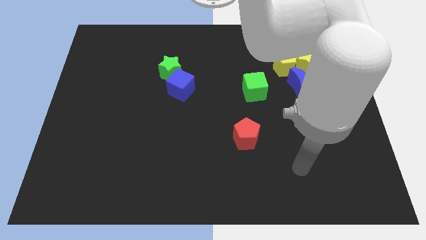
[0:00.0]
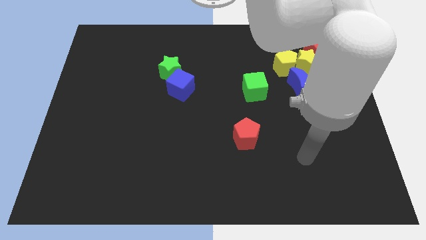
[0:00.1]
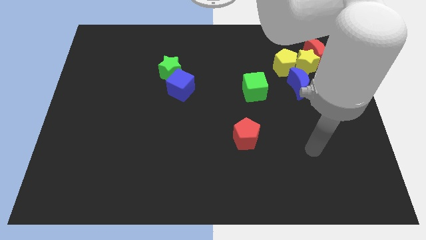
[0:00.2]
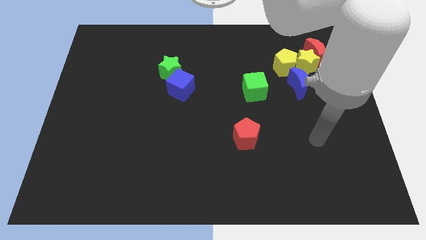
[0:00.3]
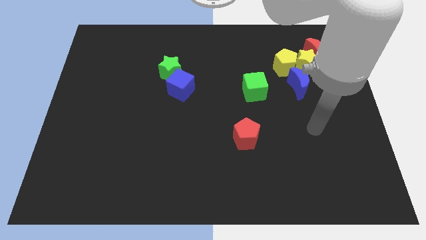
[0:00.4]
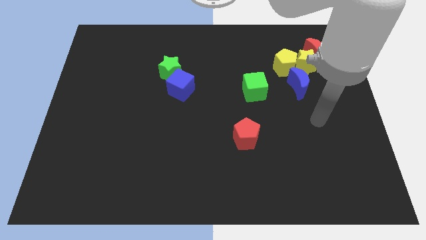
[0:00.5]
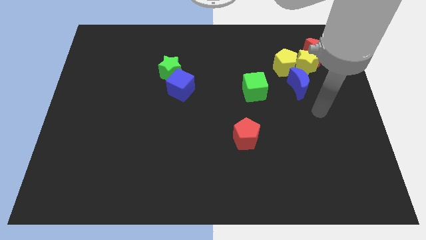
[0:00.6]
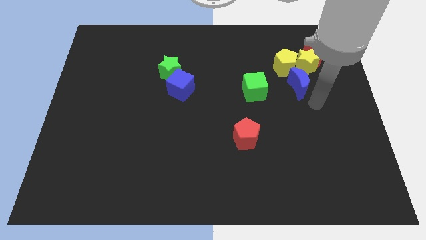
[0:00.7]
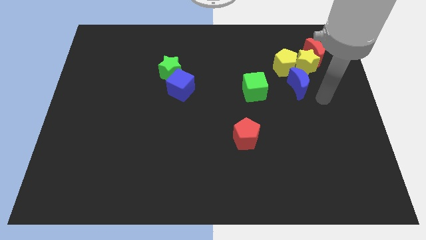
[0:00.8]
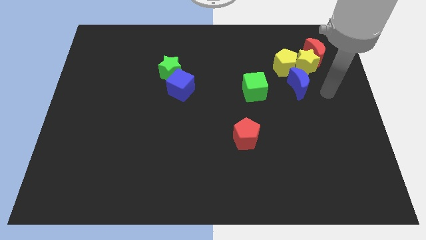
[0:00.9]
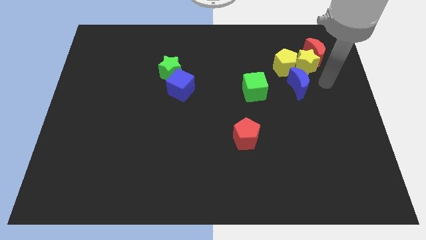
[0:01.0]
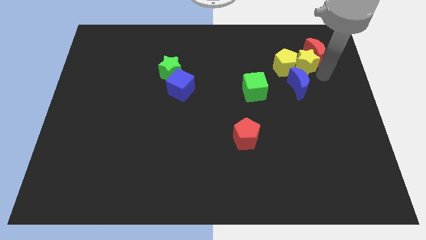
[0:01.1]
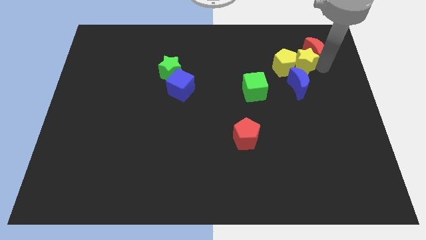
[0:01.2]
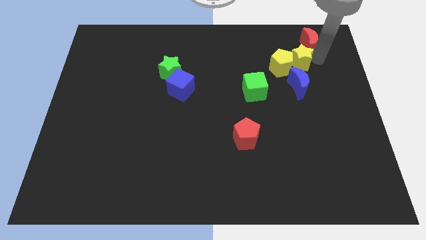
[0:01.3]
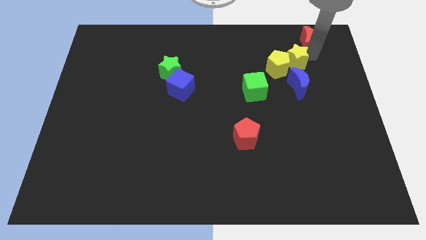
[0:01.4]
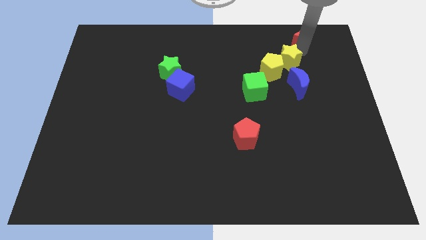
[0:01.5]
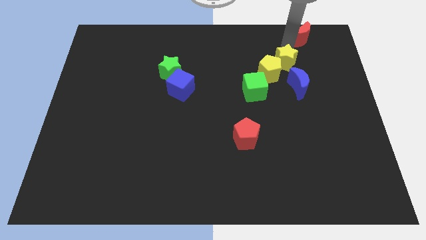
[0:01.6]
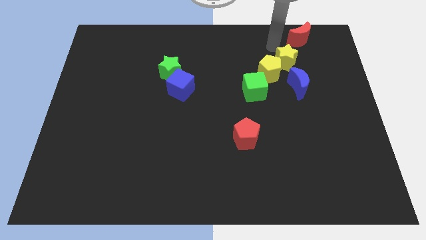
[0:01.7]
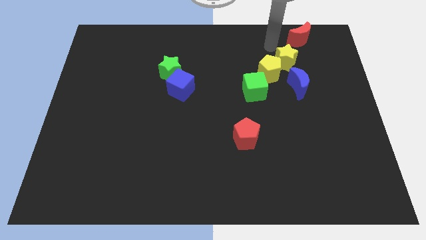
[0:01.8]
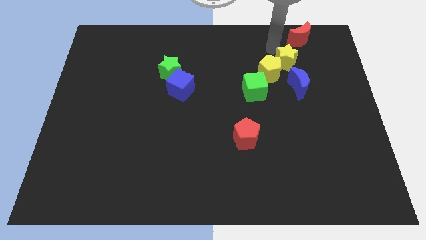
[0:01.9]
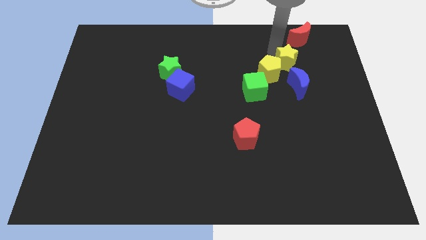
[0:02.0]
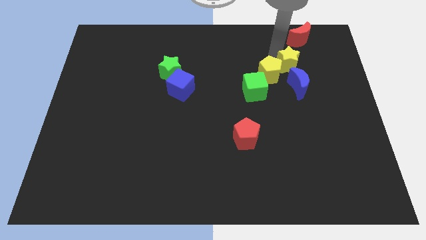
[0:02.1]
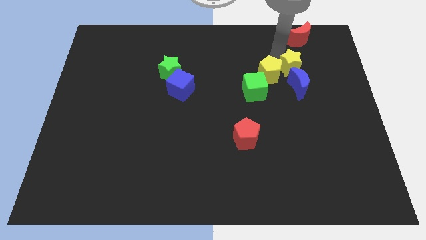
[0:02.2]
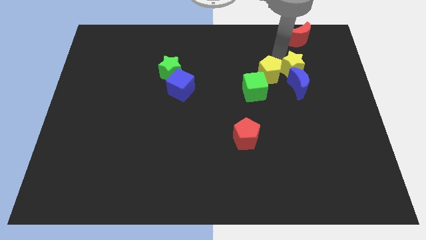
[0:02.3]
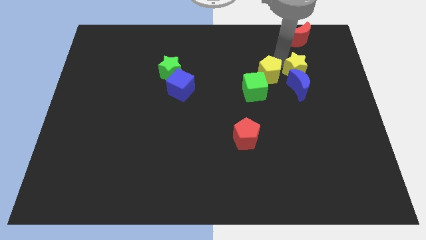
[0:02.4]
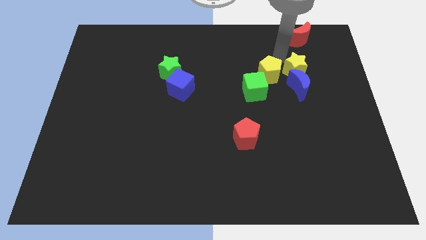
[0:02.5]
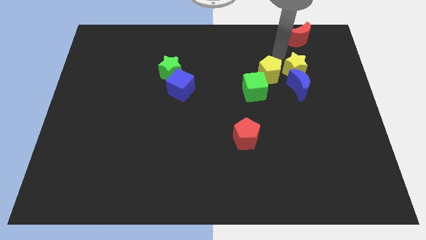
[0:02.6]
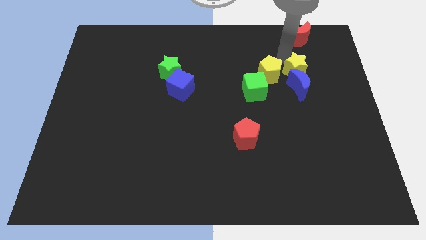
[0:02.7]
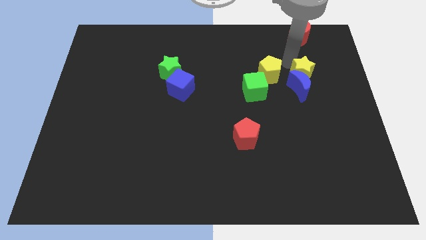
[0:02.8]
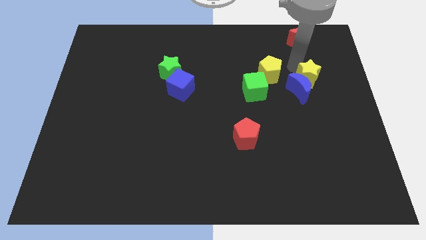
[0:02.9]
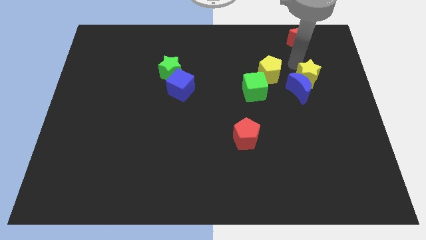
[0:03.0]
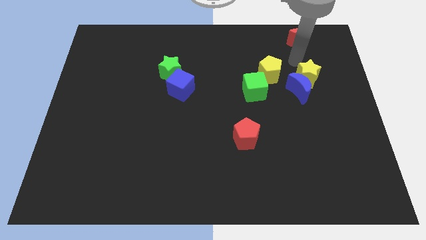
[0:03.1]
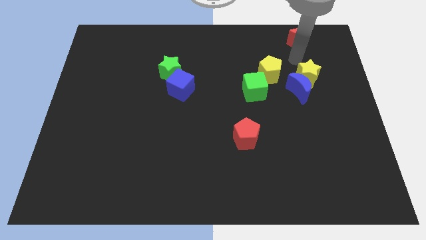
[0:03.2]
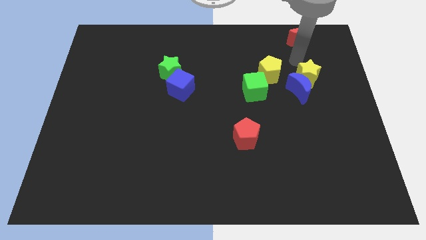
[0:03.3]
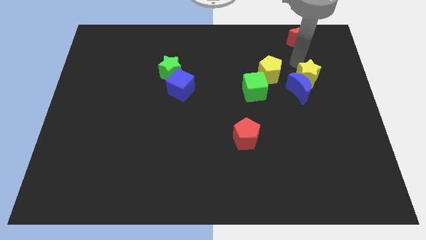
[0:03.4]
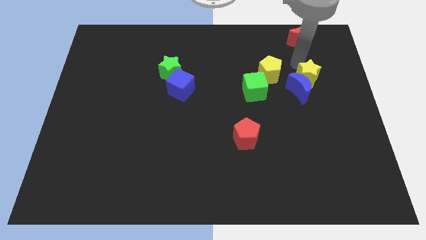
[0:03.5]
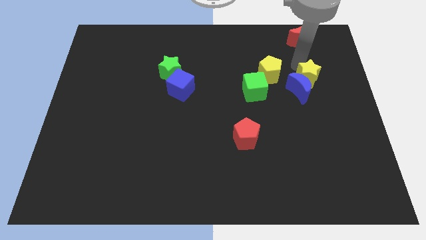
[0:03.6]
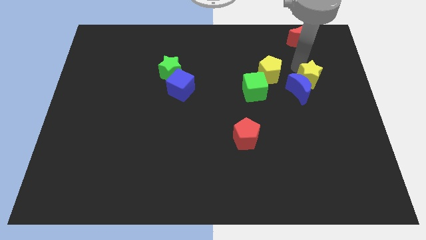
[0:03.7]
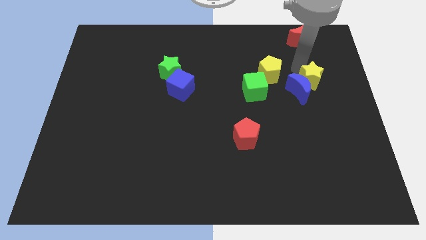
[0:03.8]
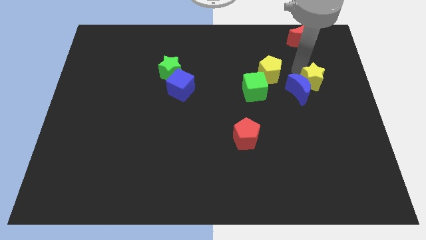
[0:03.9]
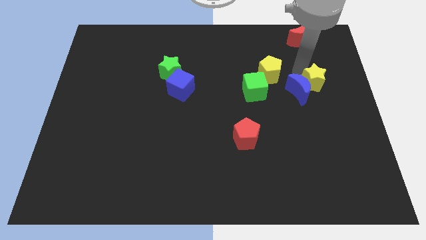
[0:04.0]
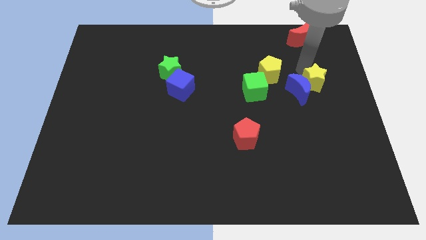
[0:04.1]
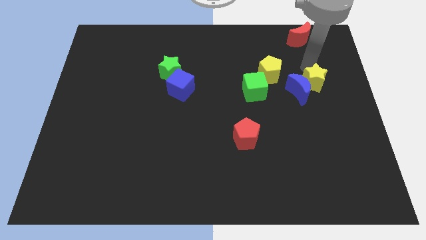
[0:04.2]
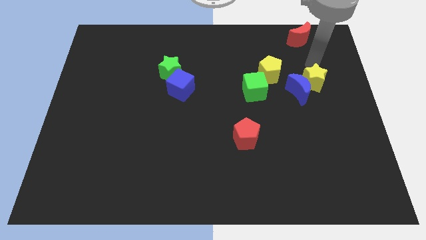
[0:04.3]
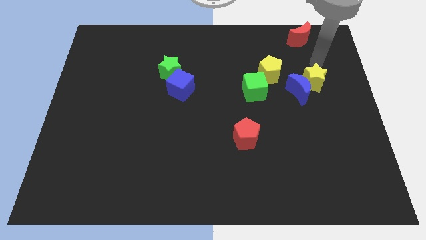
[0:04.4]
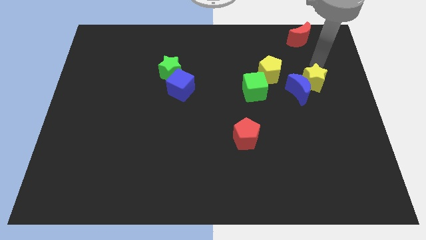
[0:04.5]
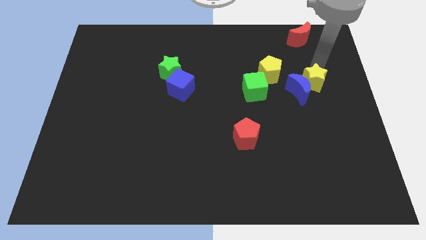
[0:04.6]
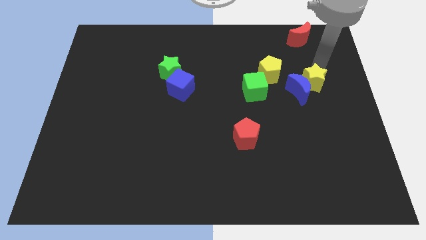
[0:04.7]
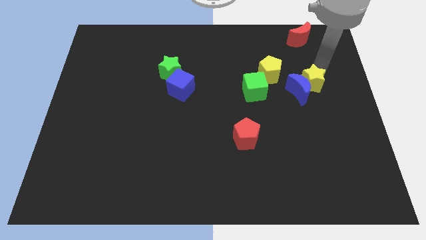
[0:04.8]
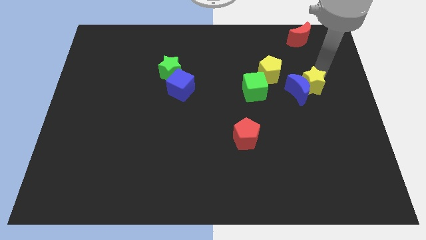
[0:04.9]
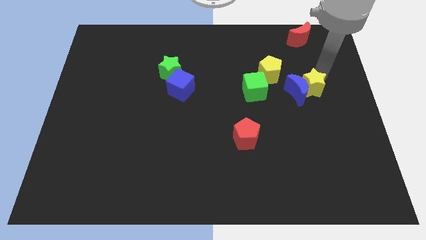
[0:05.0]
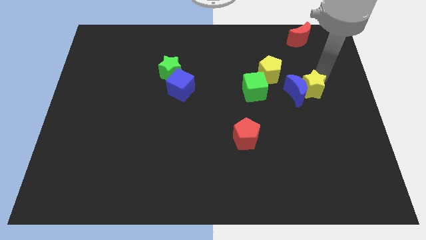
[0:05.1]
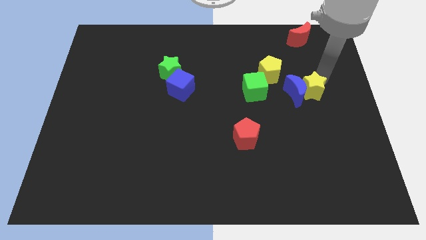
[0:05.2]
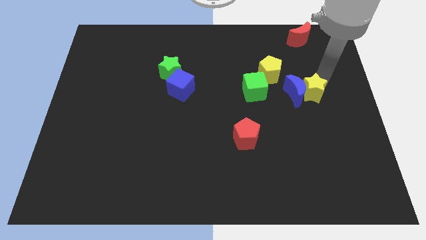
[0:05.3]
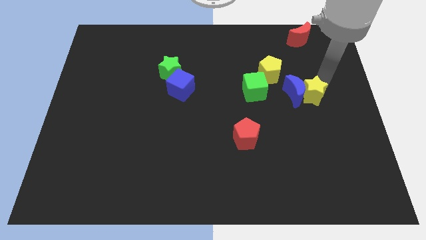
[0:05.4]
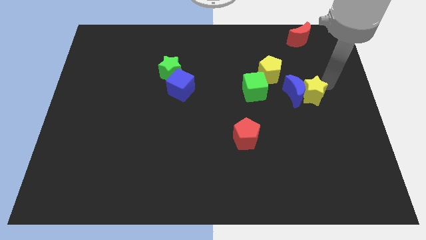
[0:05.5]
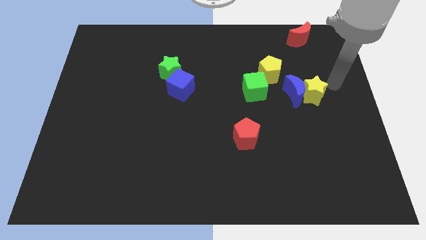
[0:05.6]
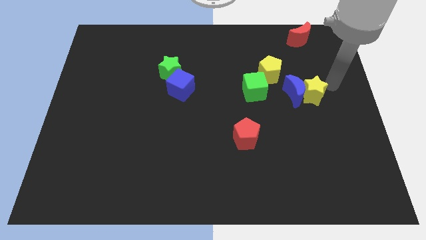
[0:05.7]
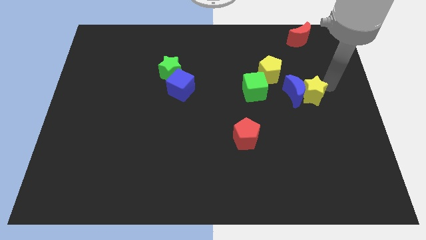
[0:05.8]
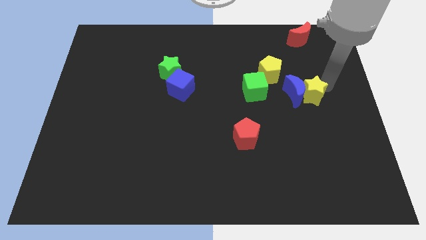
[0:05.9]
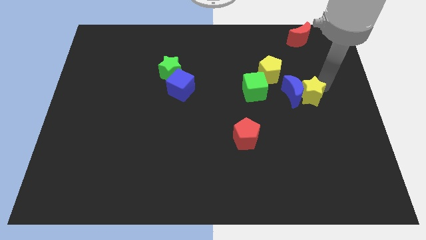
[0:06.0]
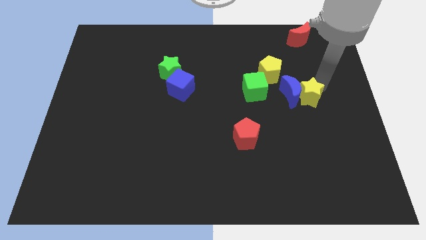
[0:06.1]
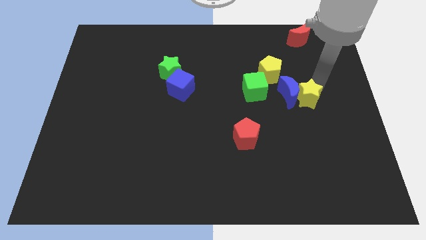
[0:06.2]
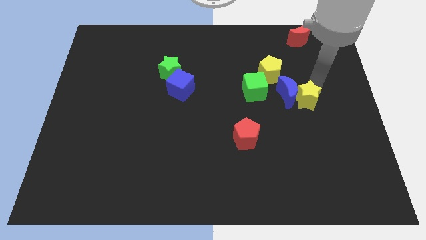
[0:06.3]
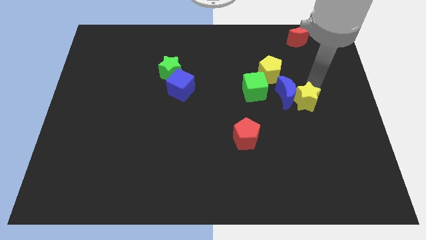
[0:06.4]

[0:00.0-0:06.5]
slightly push the yellow star diagonally down and to the left

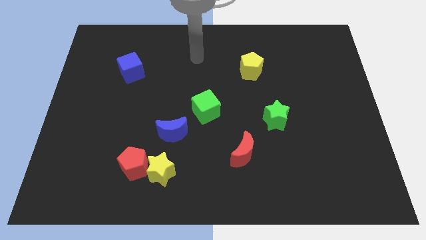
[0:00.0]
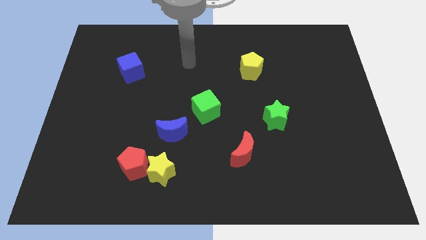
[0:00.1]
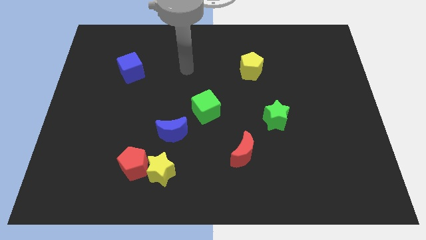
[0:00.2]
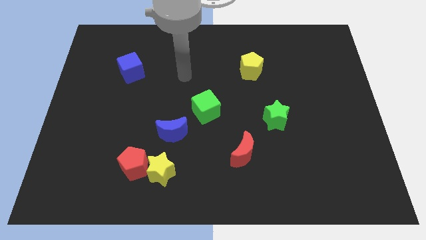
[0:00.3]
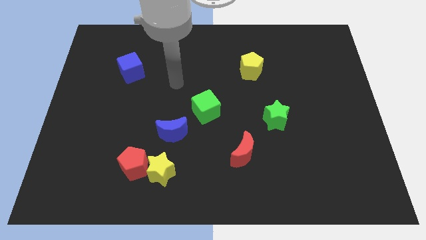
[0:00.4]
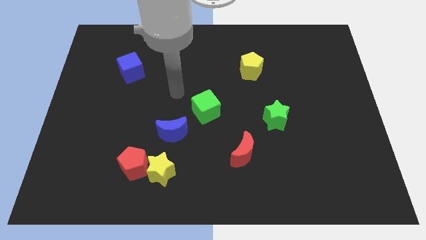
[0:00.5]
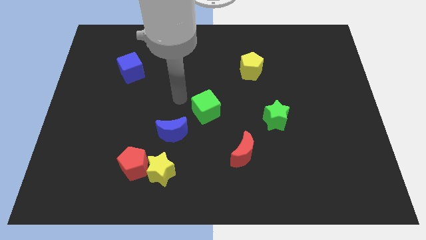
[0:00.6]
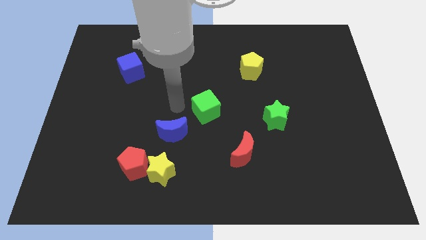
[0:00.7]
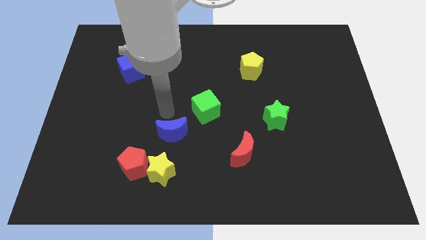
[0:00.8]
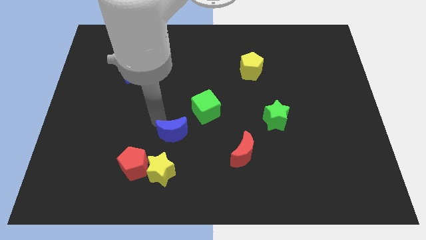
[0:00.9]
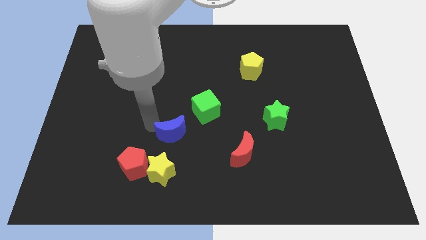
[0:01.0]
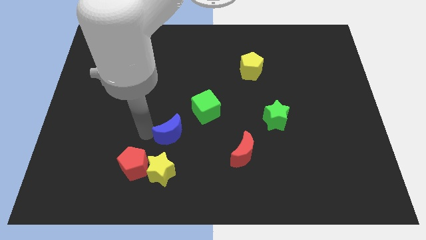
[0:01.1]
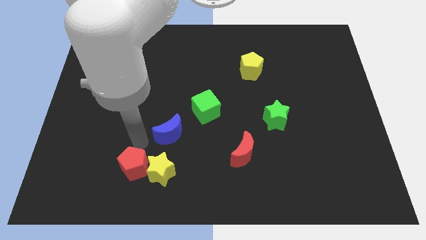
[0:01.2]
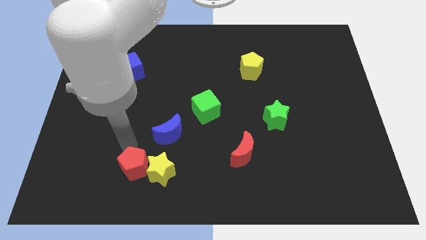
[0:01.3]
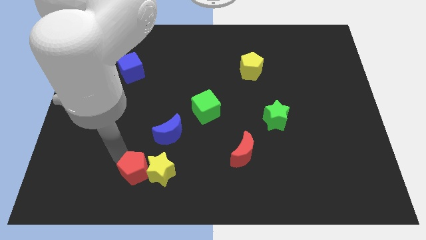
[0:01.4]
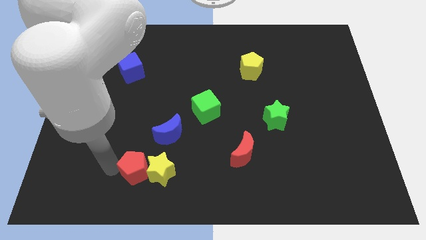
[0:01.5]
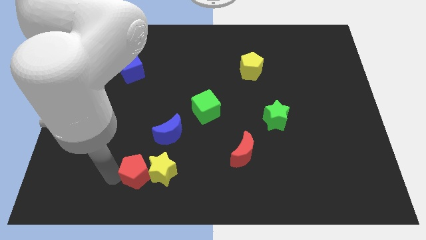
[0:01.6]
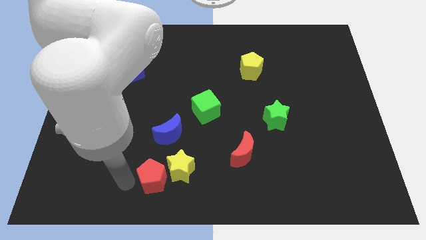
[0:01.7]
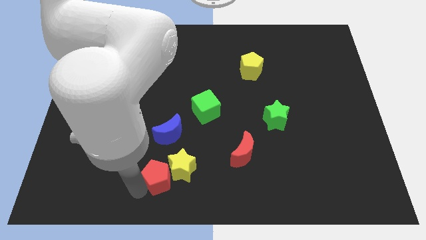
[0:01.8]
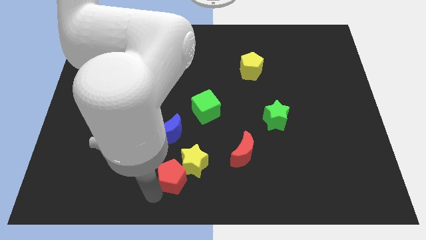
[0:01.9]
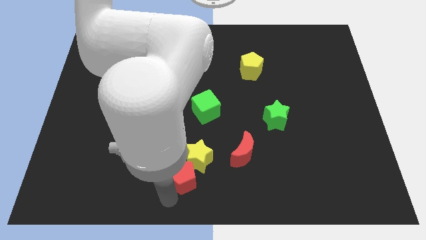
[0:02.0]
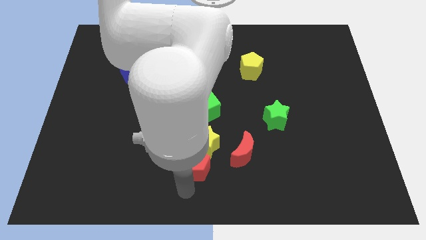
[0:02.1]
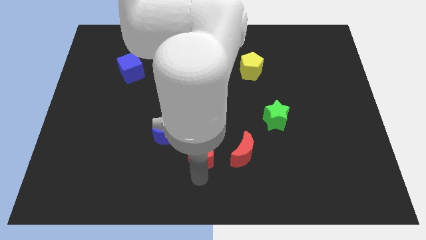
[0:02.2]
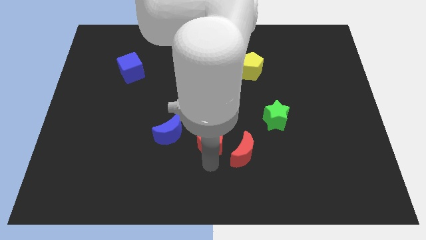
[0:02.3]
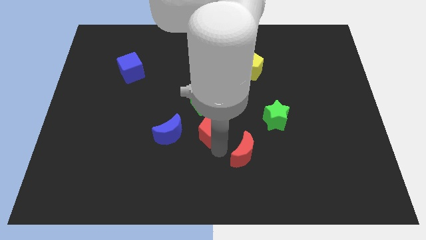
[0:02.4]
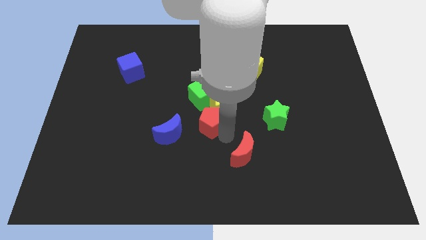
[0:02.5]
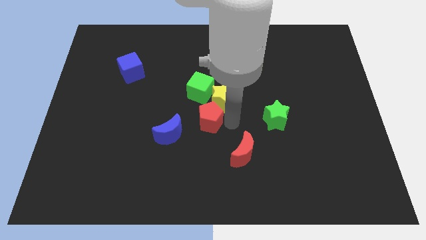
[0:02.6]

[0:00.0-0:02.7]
slide the yellow star up somewhat
